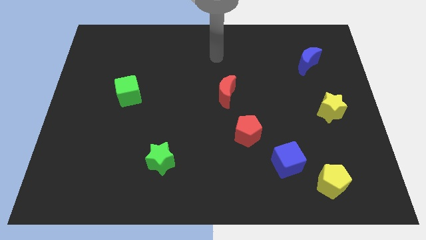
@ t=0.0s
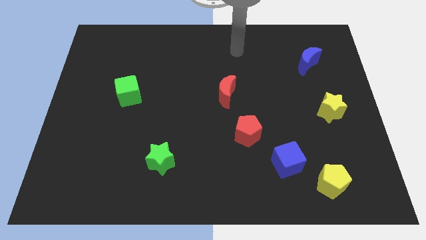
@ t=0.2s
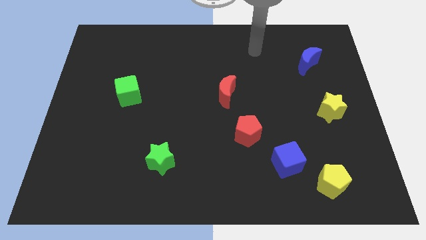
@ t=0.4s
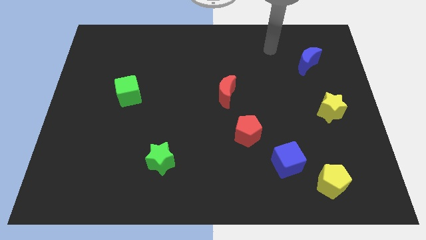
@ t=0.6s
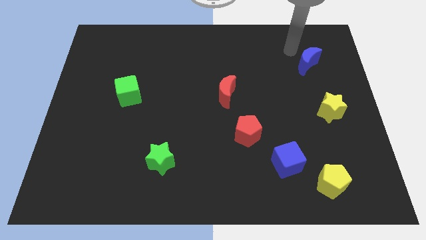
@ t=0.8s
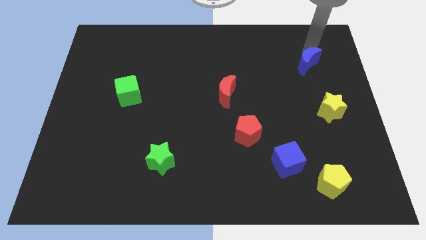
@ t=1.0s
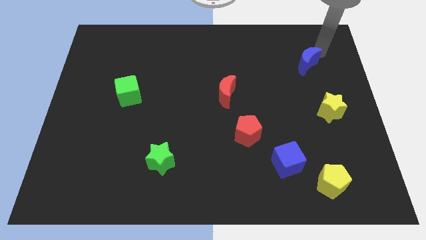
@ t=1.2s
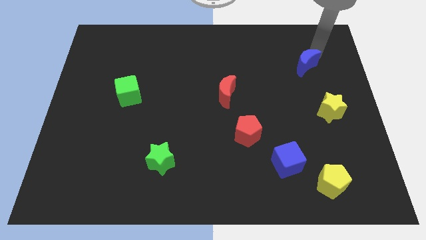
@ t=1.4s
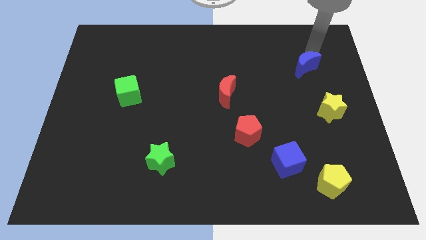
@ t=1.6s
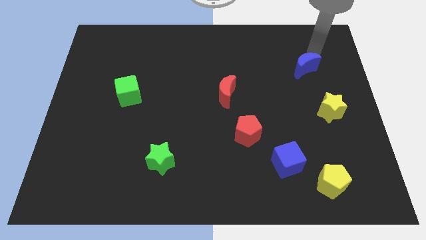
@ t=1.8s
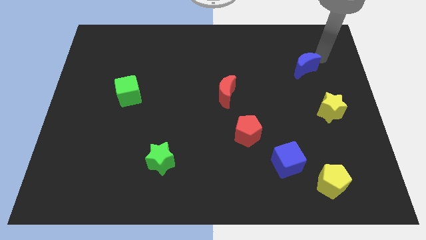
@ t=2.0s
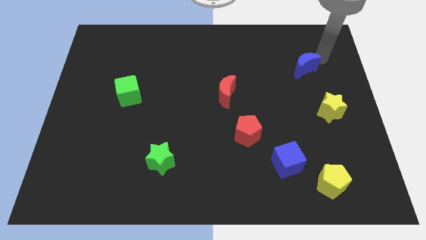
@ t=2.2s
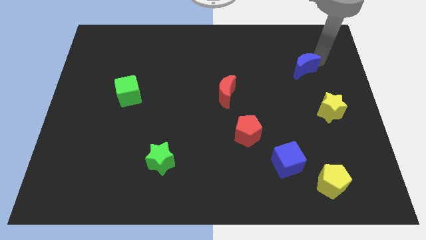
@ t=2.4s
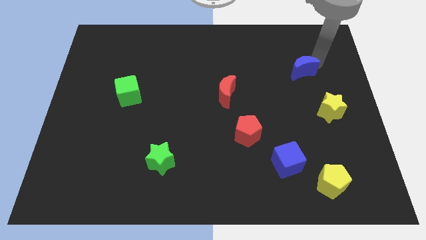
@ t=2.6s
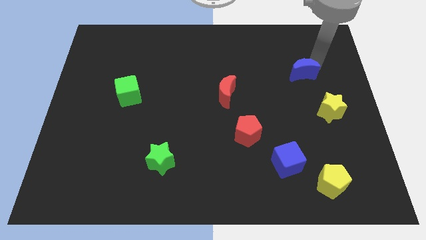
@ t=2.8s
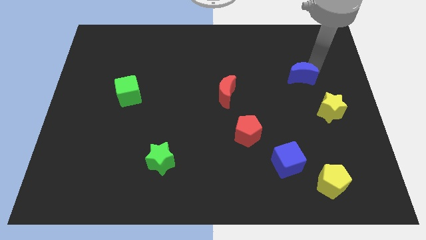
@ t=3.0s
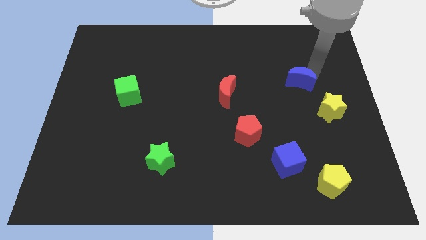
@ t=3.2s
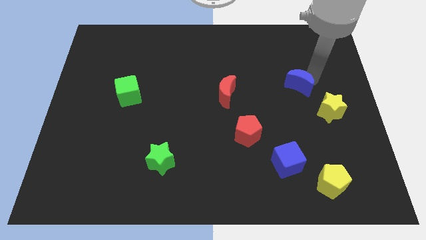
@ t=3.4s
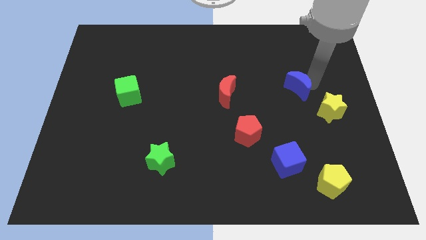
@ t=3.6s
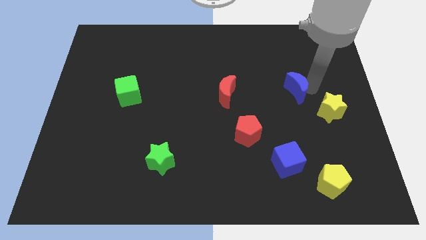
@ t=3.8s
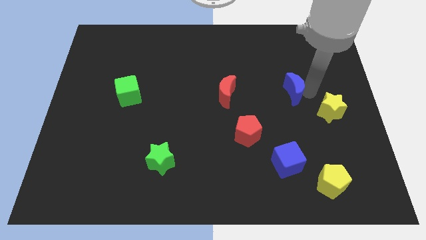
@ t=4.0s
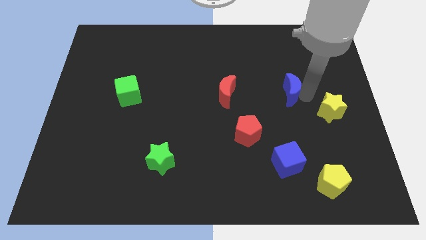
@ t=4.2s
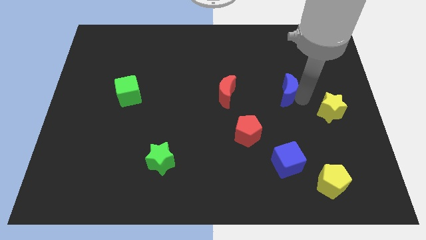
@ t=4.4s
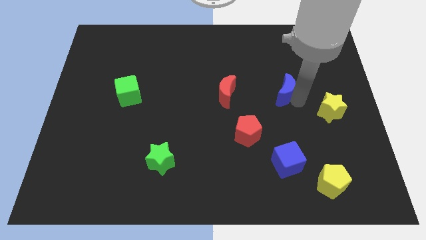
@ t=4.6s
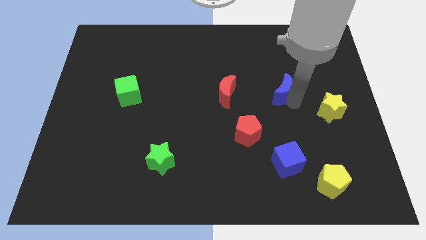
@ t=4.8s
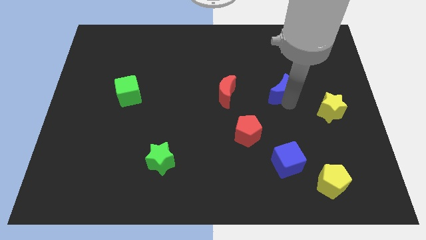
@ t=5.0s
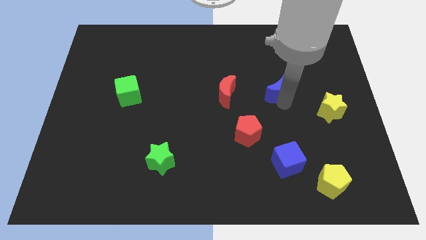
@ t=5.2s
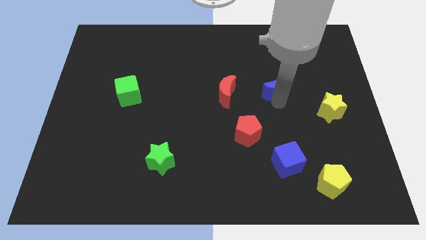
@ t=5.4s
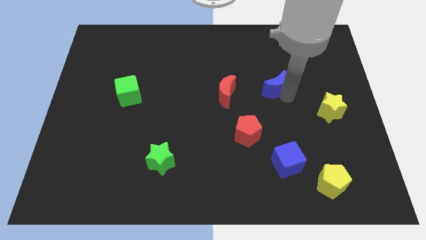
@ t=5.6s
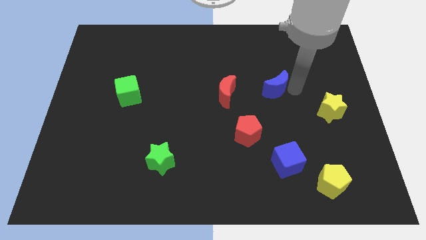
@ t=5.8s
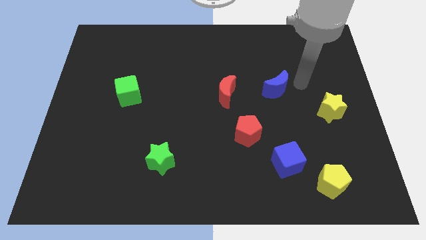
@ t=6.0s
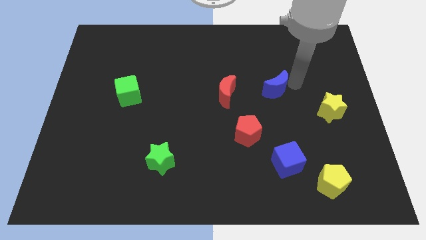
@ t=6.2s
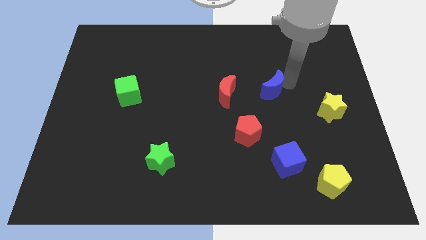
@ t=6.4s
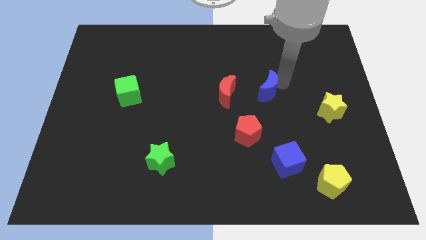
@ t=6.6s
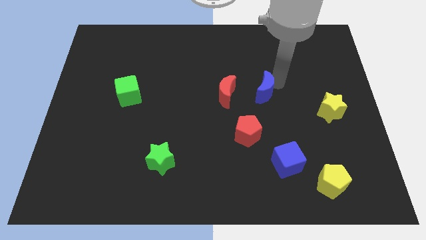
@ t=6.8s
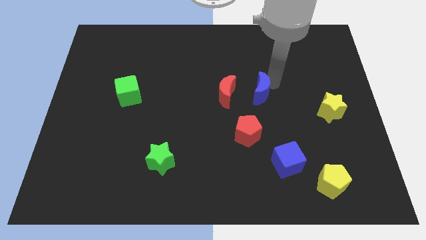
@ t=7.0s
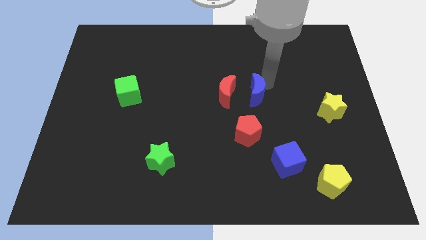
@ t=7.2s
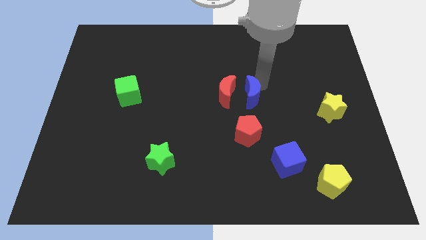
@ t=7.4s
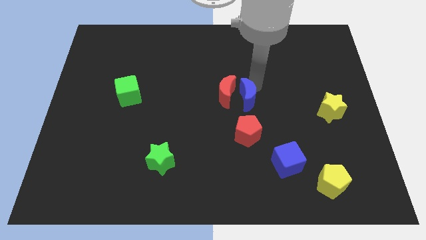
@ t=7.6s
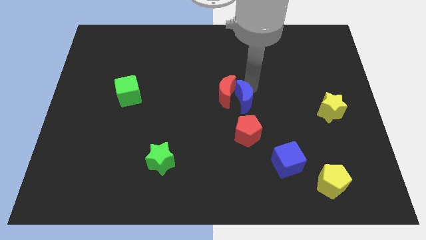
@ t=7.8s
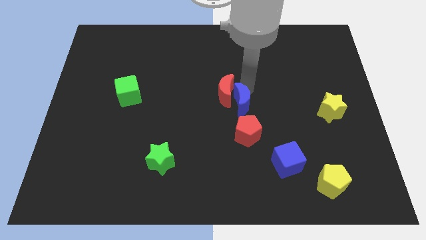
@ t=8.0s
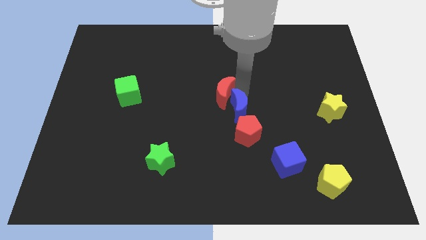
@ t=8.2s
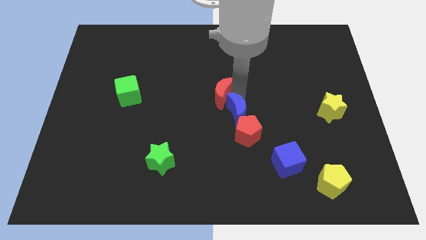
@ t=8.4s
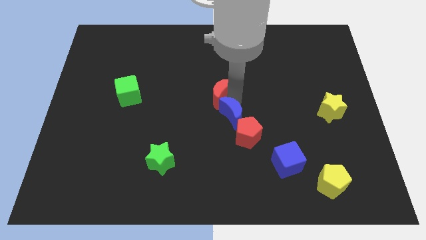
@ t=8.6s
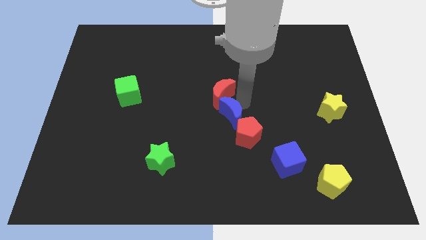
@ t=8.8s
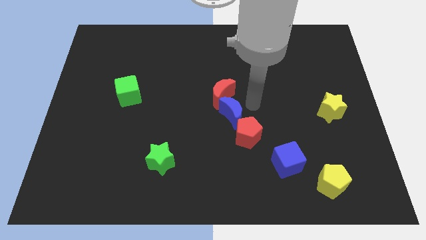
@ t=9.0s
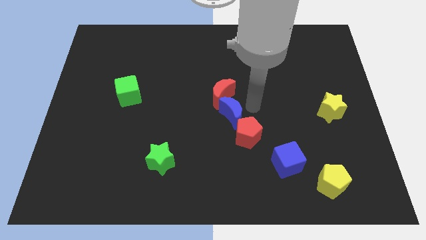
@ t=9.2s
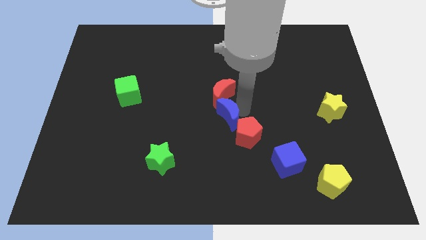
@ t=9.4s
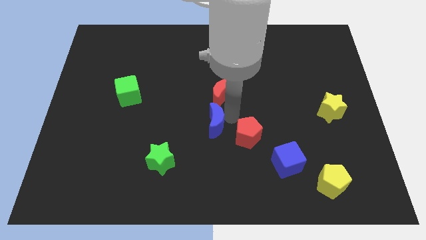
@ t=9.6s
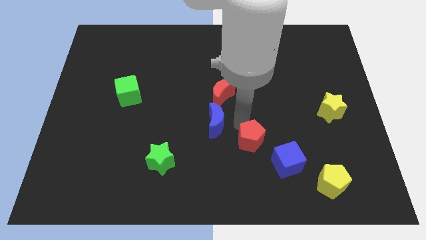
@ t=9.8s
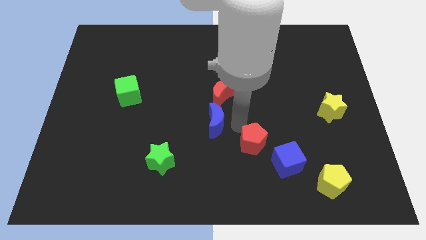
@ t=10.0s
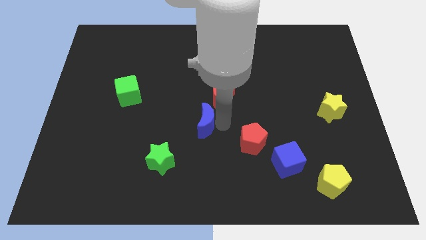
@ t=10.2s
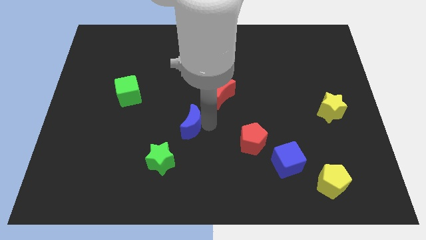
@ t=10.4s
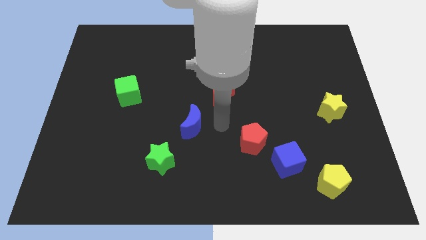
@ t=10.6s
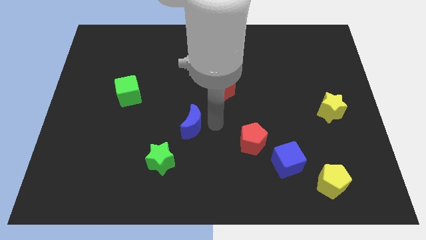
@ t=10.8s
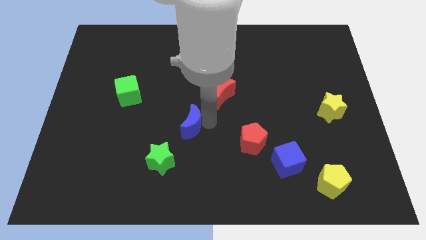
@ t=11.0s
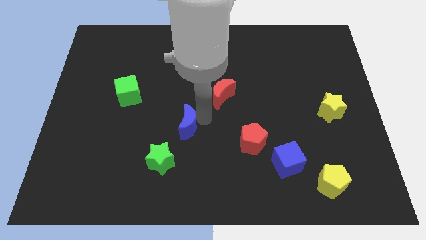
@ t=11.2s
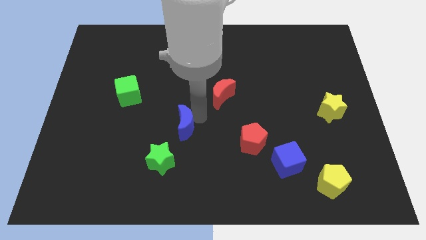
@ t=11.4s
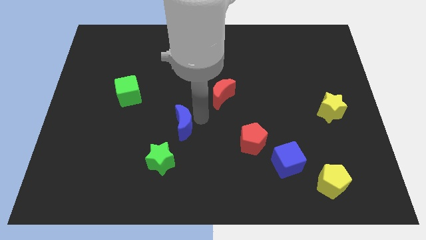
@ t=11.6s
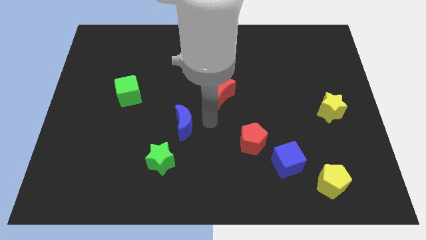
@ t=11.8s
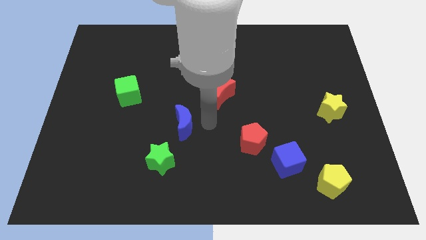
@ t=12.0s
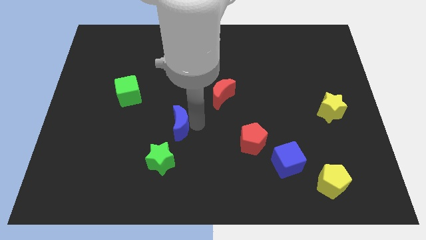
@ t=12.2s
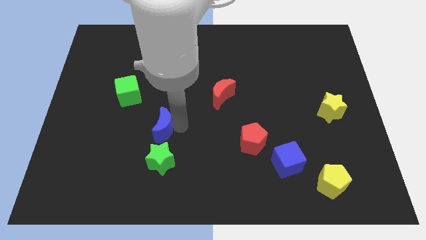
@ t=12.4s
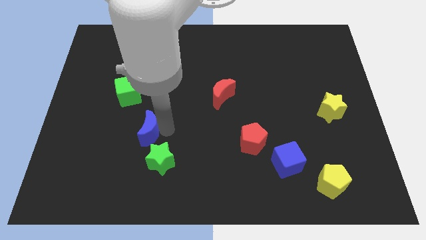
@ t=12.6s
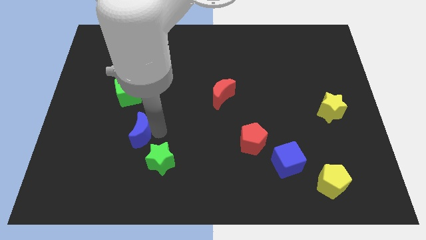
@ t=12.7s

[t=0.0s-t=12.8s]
push the blue moon below the green cube

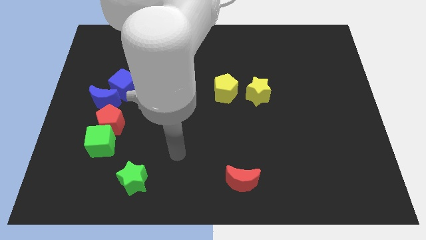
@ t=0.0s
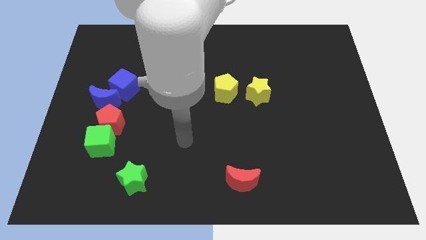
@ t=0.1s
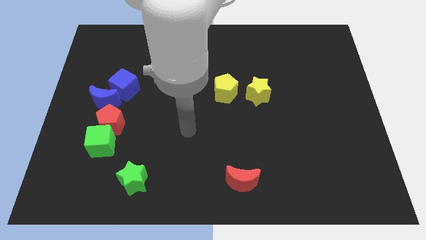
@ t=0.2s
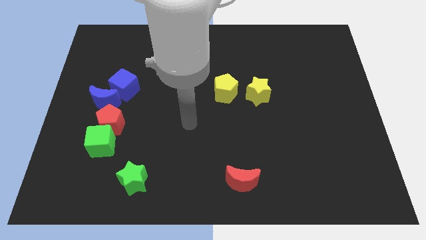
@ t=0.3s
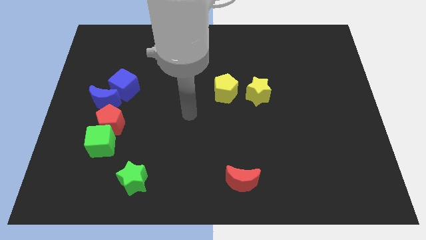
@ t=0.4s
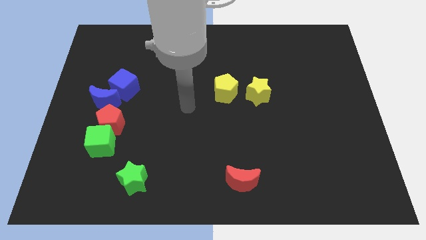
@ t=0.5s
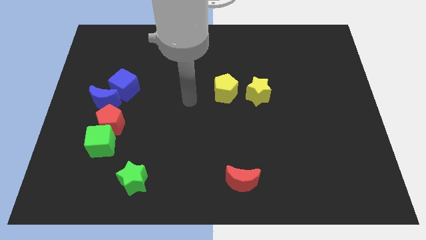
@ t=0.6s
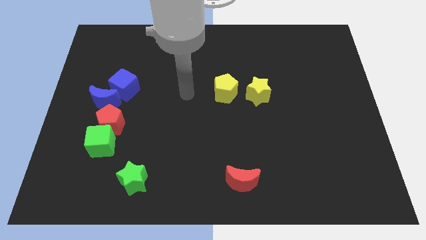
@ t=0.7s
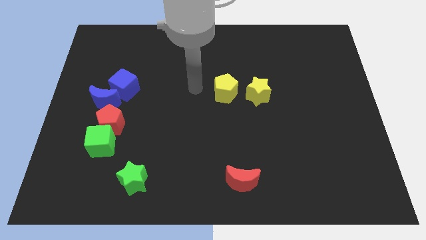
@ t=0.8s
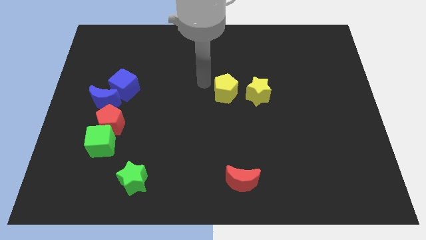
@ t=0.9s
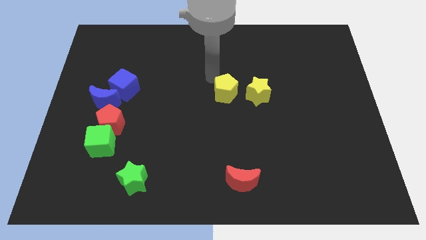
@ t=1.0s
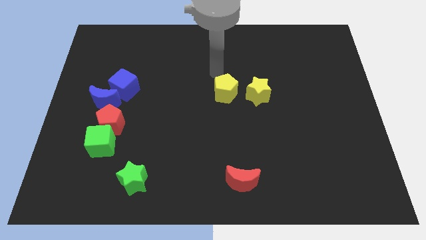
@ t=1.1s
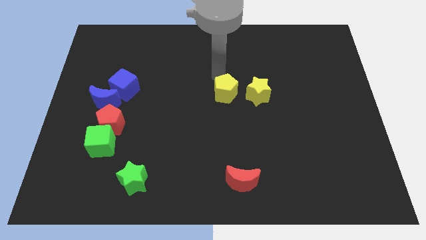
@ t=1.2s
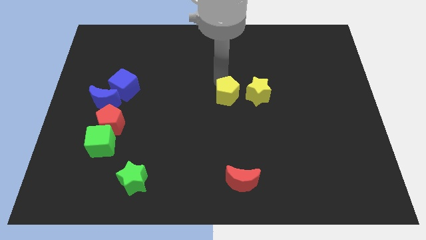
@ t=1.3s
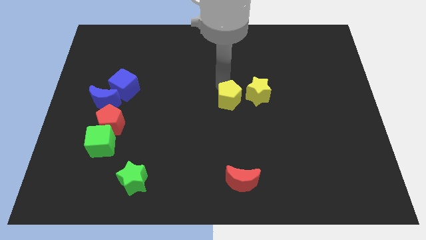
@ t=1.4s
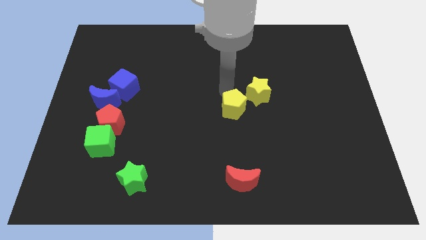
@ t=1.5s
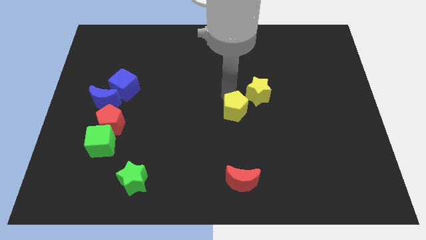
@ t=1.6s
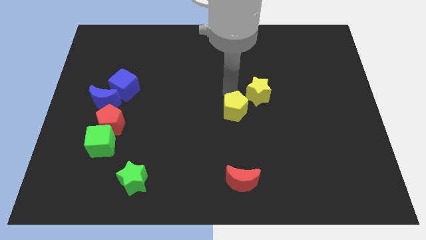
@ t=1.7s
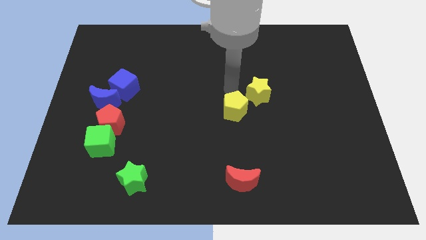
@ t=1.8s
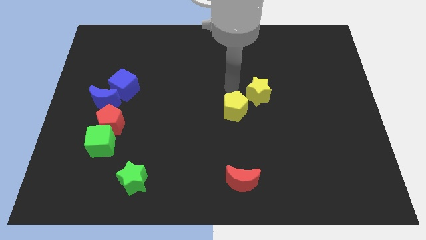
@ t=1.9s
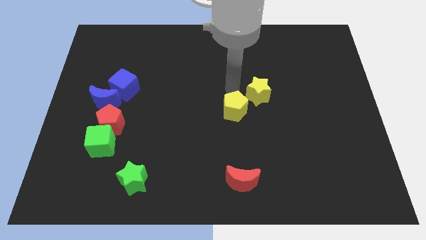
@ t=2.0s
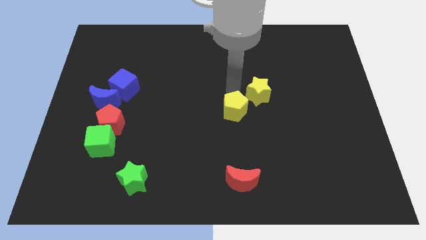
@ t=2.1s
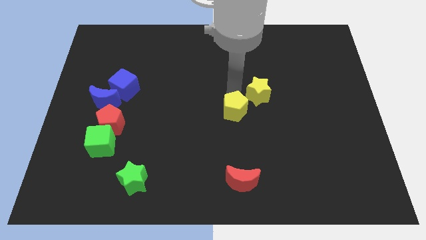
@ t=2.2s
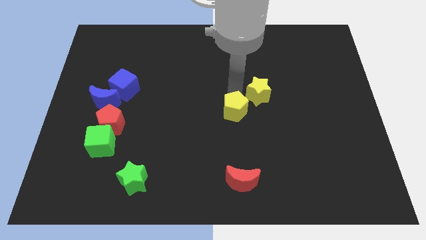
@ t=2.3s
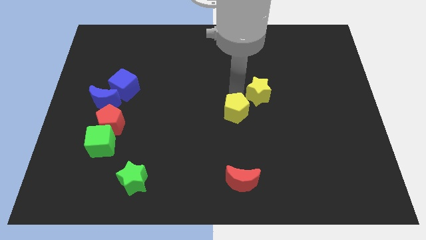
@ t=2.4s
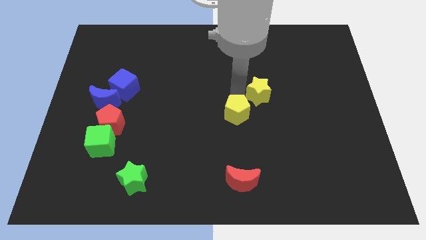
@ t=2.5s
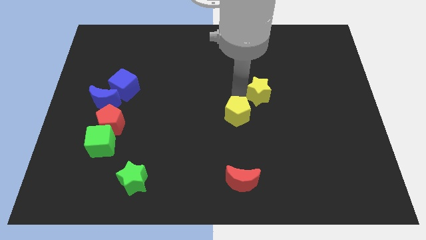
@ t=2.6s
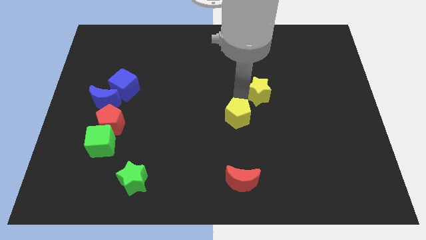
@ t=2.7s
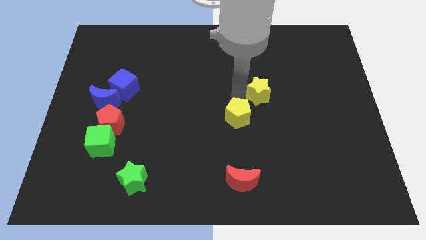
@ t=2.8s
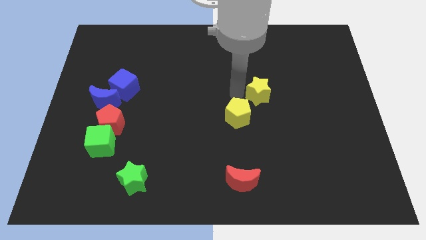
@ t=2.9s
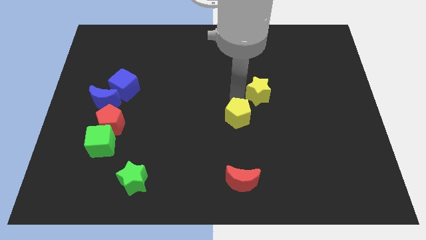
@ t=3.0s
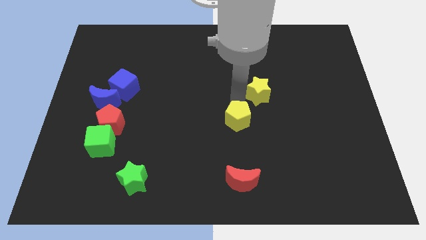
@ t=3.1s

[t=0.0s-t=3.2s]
push the yellow pentagon above the red moon
